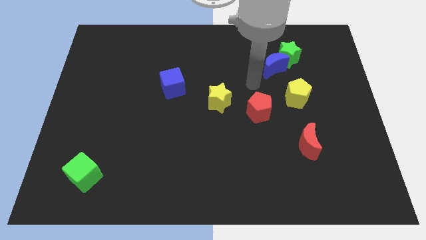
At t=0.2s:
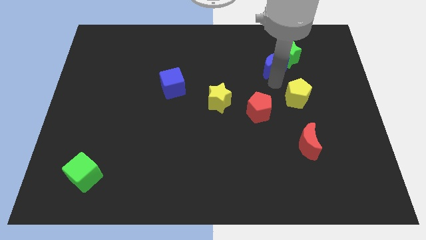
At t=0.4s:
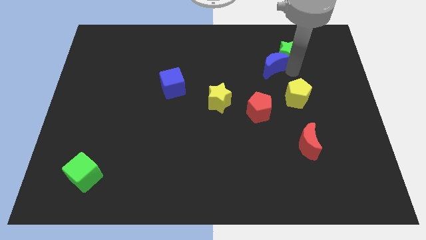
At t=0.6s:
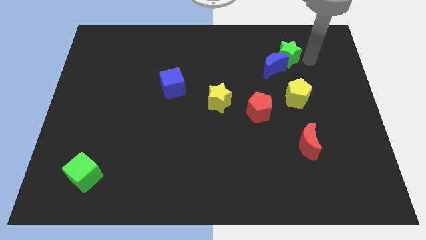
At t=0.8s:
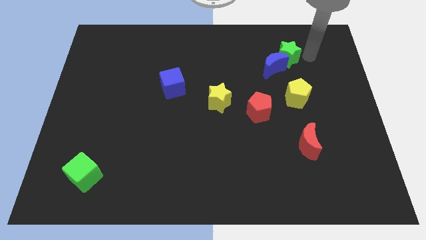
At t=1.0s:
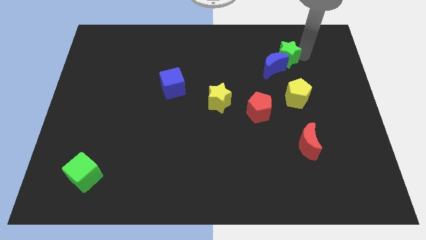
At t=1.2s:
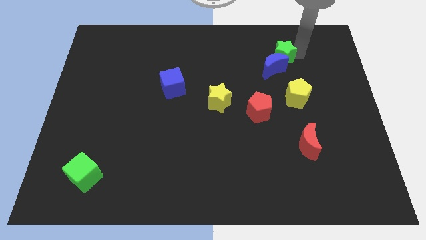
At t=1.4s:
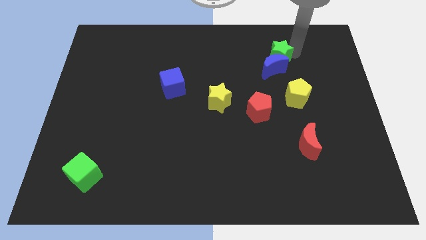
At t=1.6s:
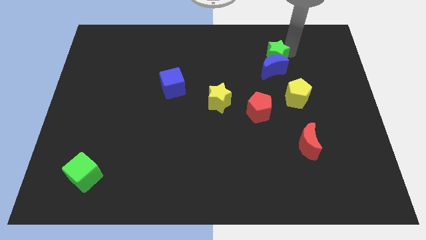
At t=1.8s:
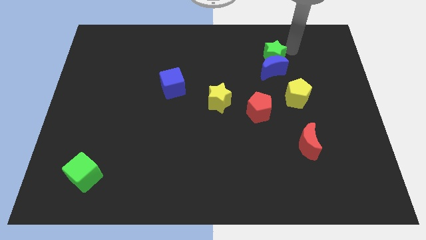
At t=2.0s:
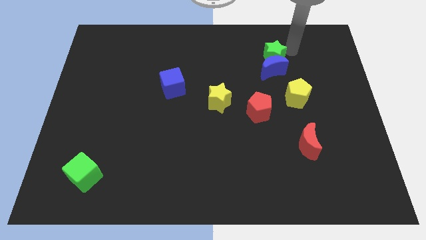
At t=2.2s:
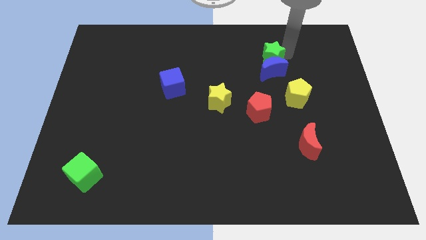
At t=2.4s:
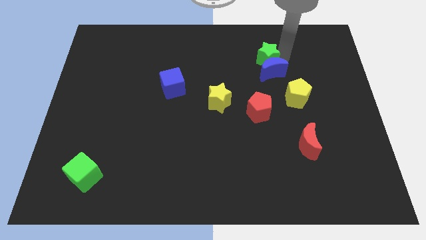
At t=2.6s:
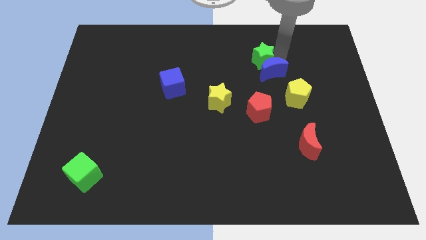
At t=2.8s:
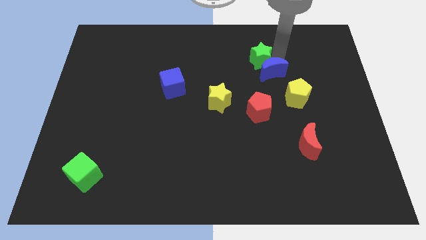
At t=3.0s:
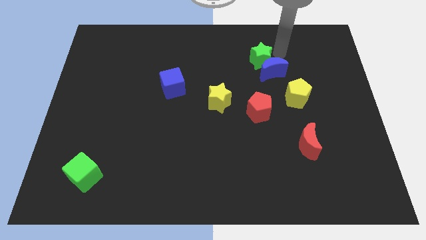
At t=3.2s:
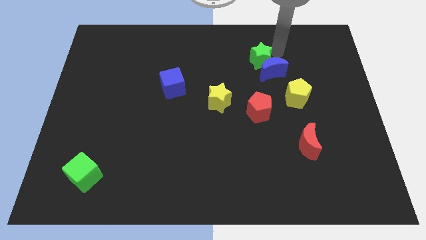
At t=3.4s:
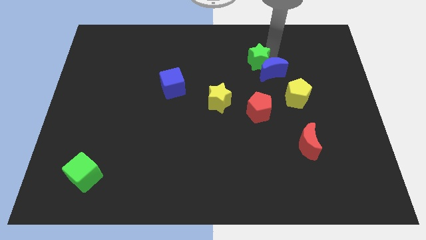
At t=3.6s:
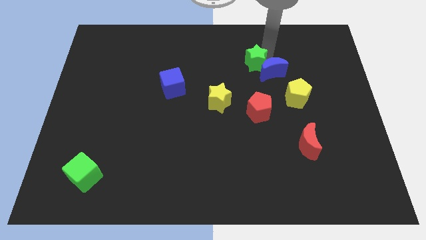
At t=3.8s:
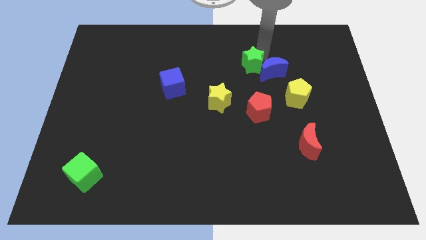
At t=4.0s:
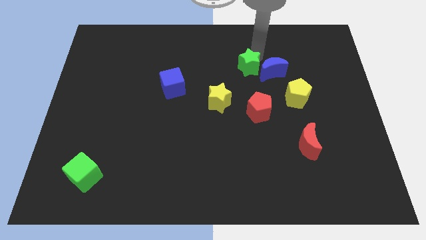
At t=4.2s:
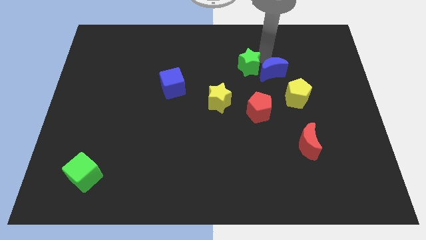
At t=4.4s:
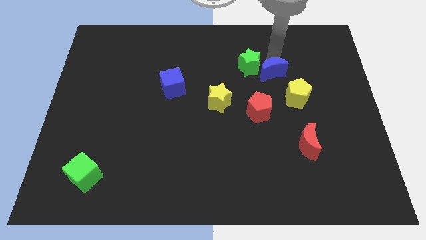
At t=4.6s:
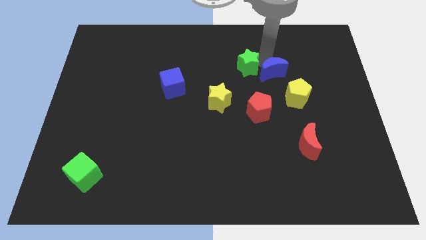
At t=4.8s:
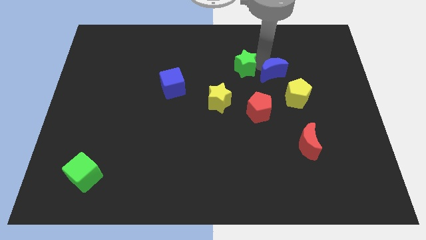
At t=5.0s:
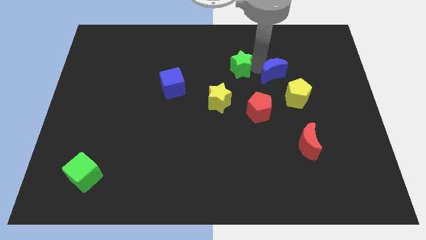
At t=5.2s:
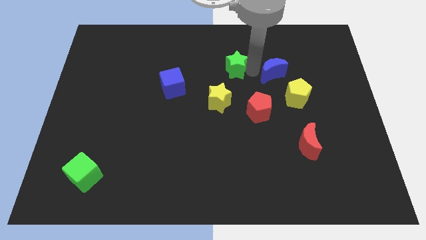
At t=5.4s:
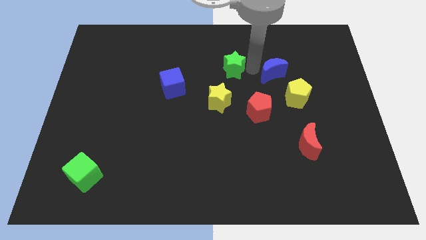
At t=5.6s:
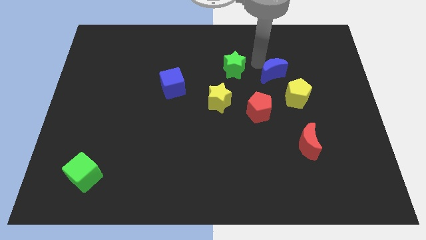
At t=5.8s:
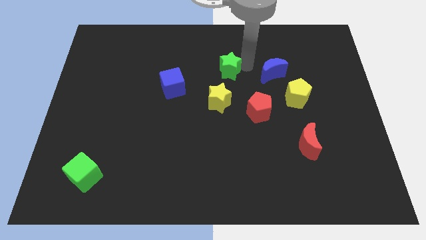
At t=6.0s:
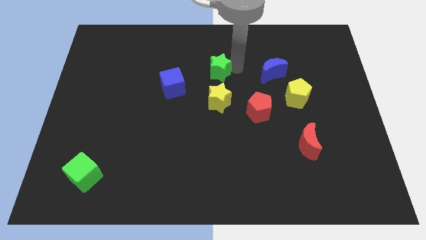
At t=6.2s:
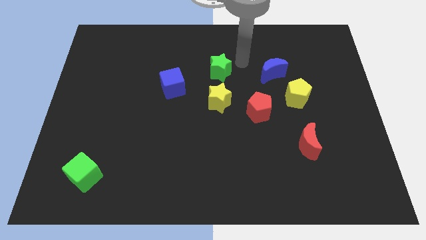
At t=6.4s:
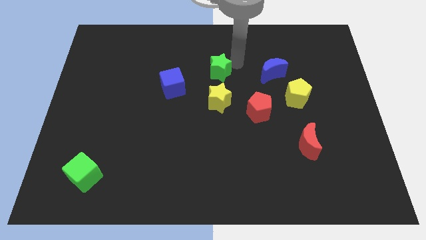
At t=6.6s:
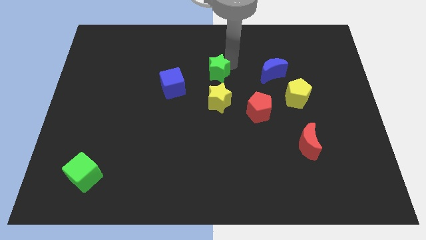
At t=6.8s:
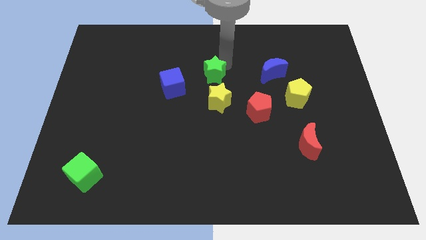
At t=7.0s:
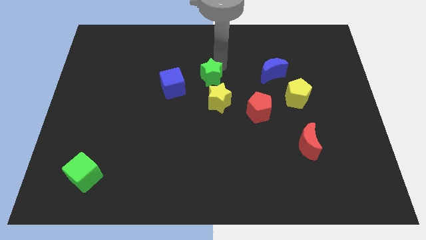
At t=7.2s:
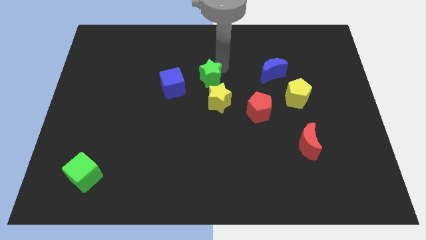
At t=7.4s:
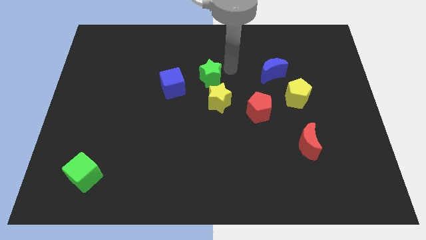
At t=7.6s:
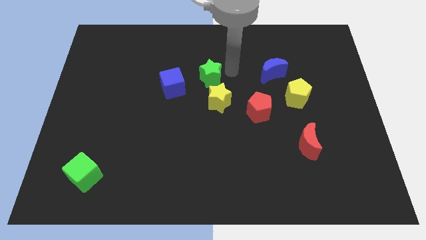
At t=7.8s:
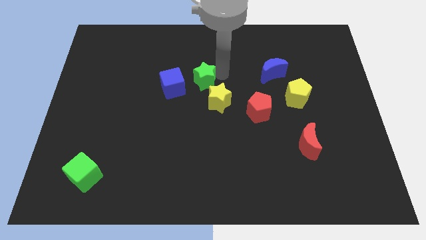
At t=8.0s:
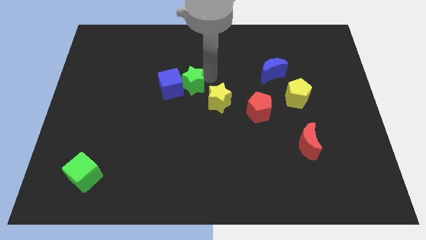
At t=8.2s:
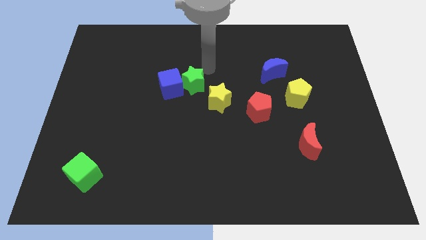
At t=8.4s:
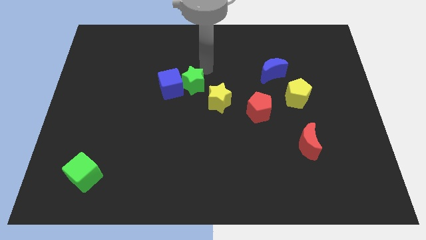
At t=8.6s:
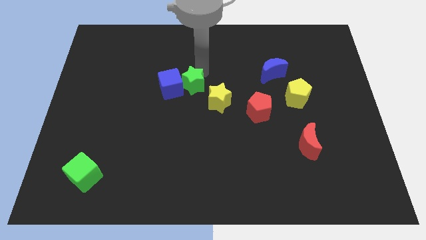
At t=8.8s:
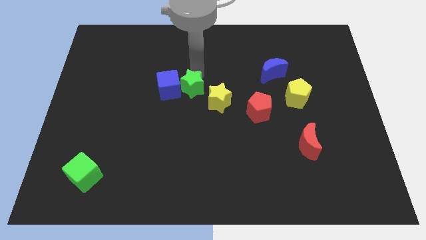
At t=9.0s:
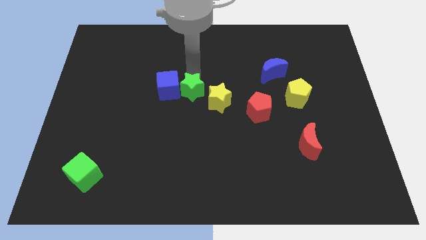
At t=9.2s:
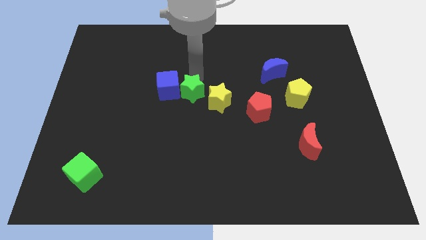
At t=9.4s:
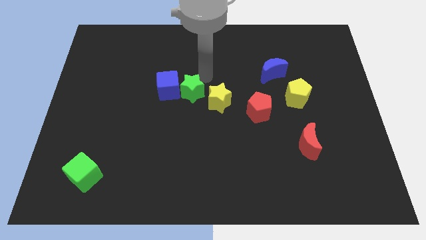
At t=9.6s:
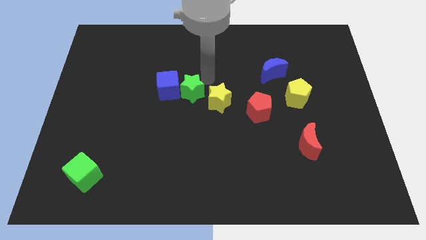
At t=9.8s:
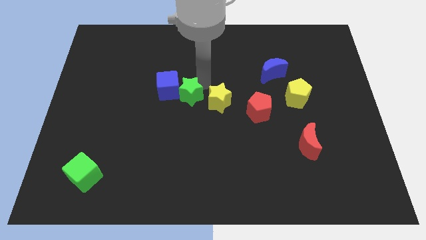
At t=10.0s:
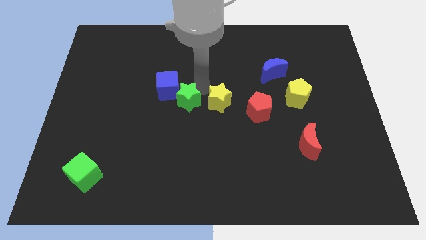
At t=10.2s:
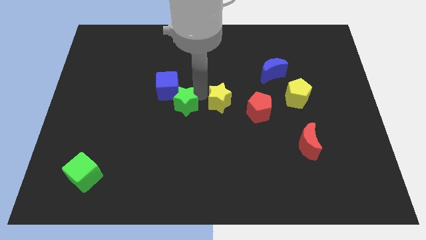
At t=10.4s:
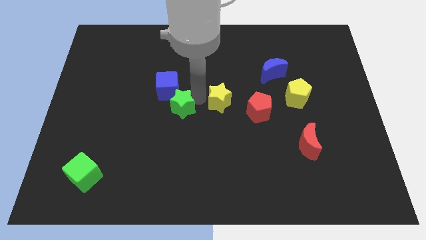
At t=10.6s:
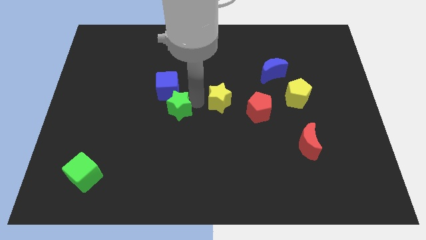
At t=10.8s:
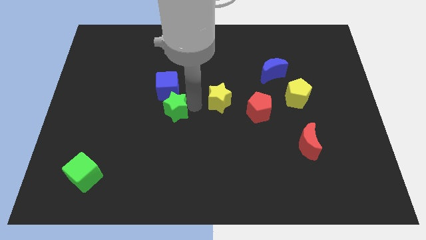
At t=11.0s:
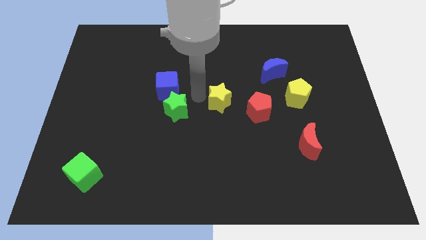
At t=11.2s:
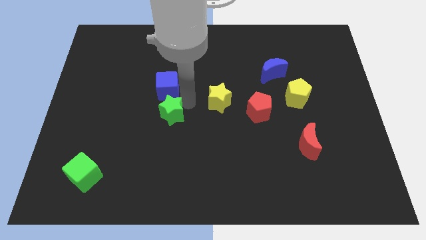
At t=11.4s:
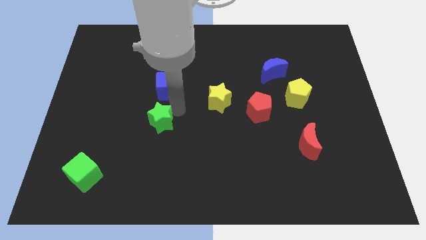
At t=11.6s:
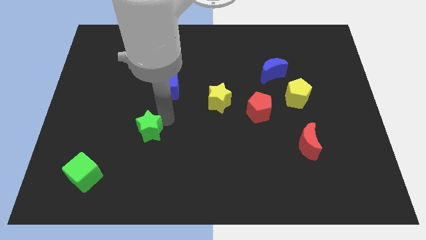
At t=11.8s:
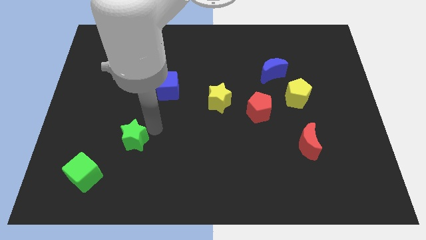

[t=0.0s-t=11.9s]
move the green star to the top right of the green cube

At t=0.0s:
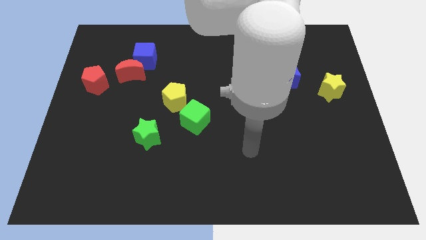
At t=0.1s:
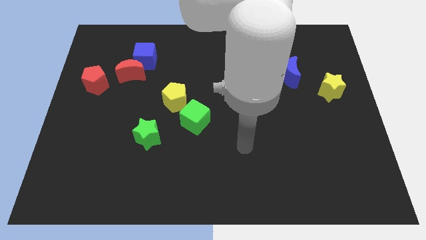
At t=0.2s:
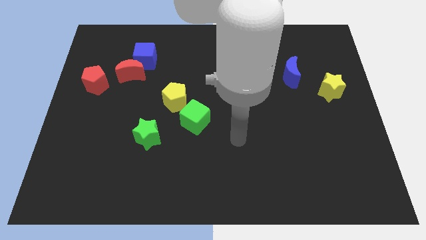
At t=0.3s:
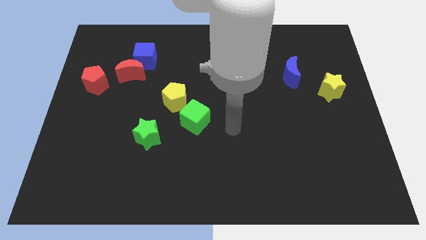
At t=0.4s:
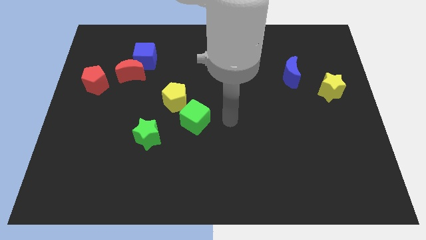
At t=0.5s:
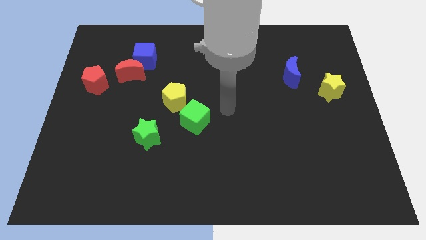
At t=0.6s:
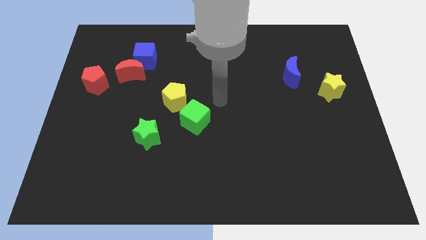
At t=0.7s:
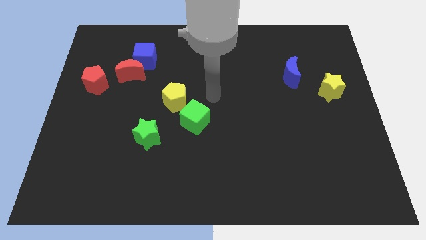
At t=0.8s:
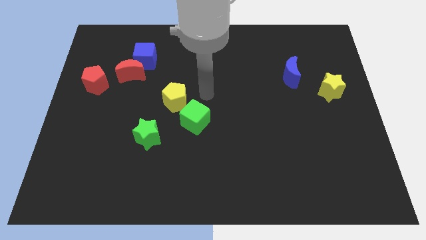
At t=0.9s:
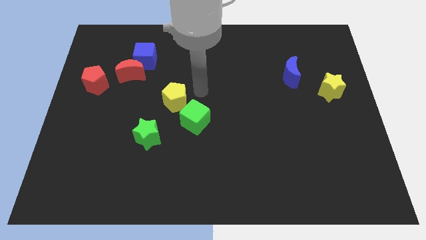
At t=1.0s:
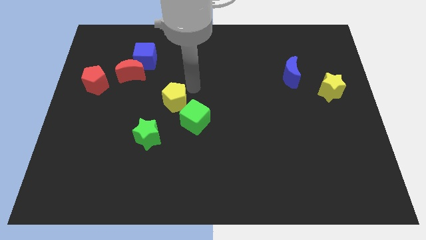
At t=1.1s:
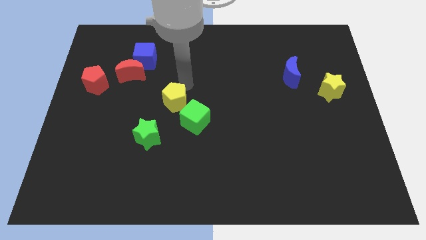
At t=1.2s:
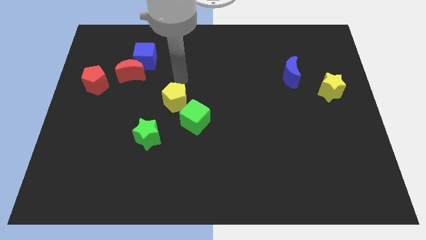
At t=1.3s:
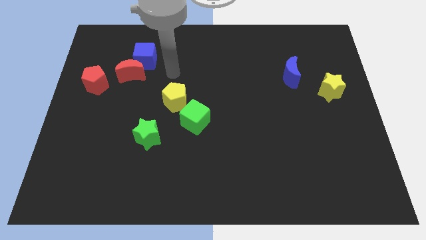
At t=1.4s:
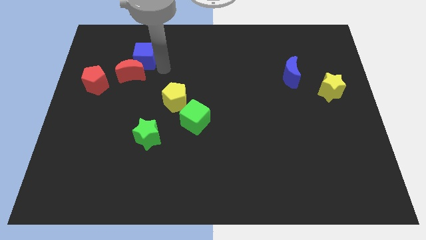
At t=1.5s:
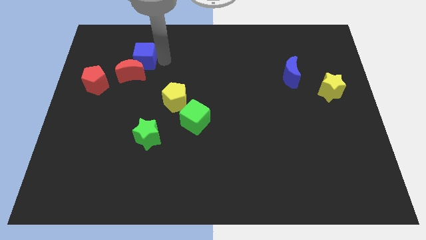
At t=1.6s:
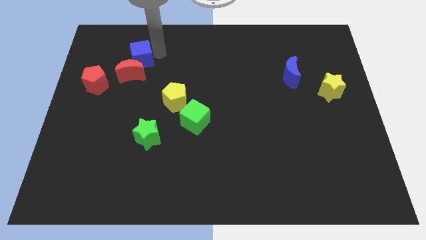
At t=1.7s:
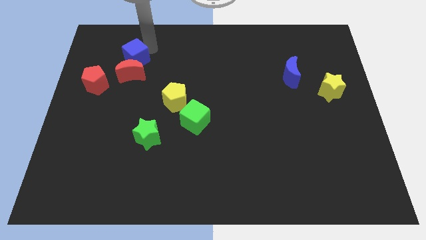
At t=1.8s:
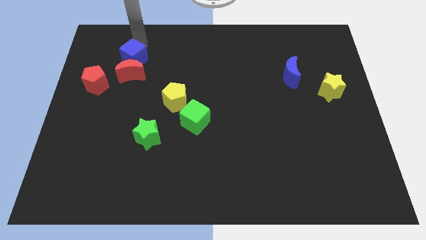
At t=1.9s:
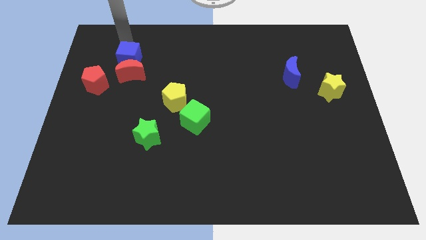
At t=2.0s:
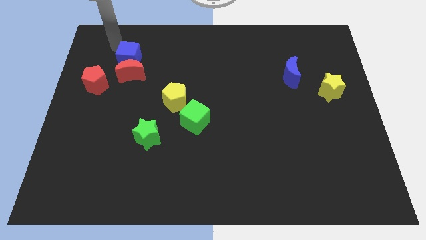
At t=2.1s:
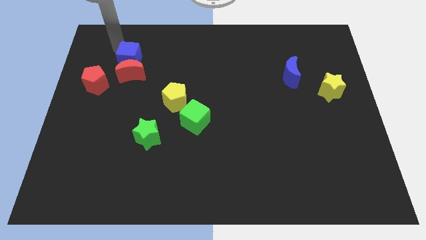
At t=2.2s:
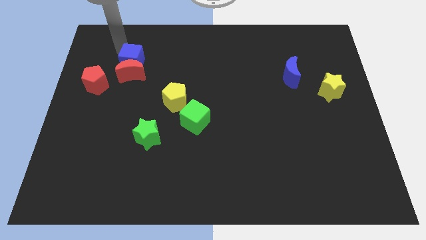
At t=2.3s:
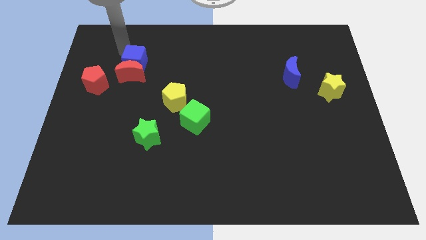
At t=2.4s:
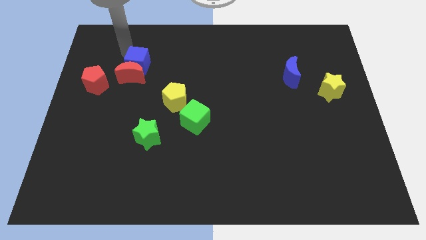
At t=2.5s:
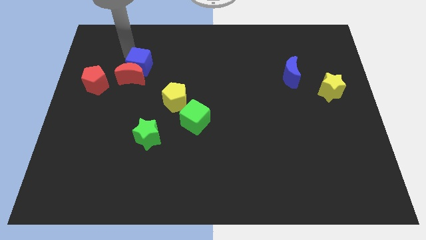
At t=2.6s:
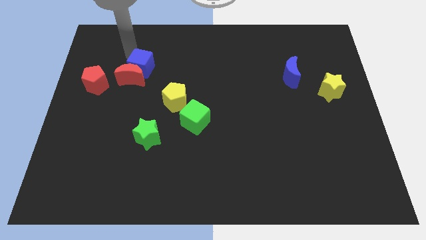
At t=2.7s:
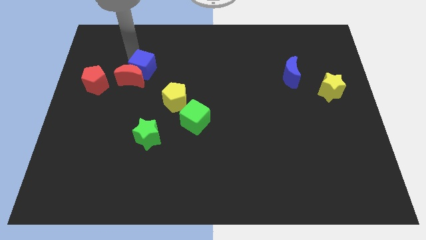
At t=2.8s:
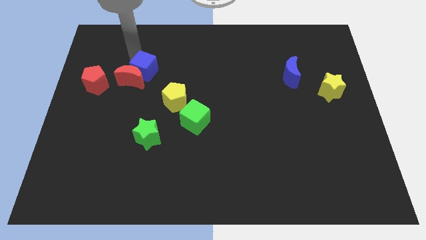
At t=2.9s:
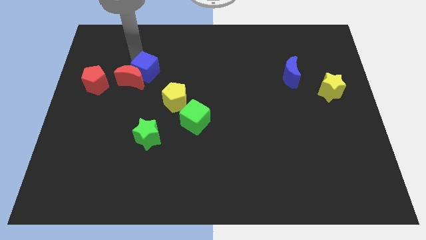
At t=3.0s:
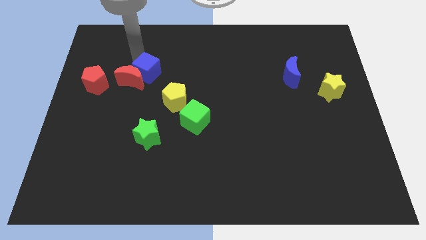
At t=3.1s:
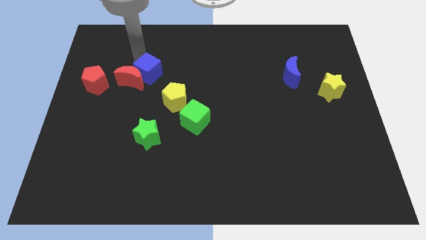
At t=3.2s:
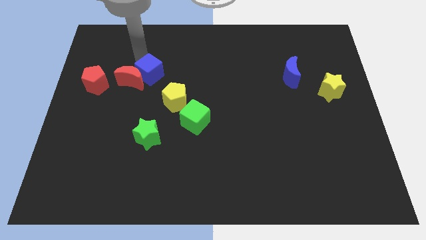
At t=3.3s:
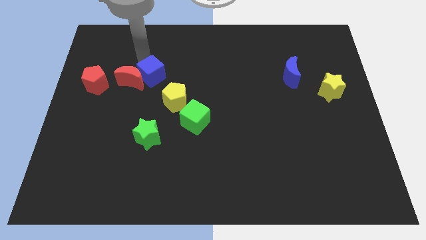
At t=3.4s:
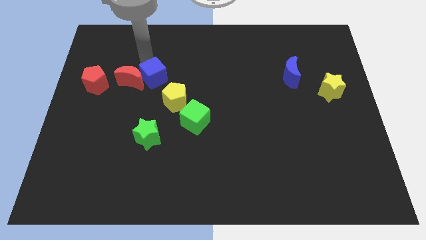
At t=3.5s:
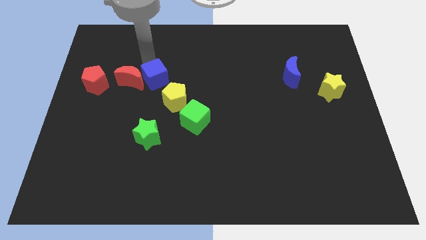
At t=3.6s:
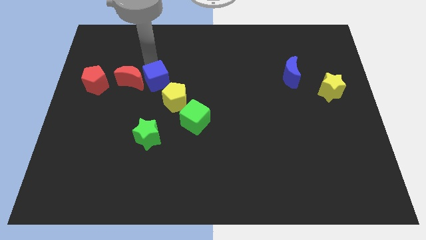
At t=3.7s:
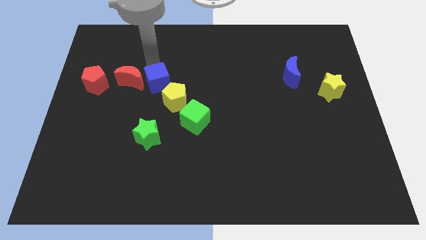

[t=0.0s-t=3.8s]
push the blue cube above the green star
